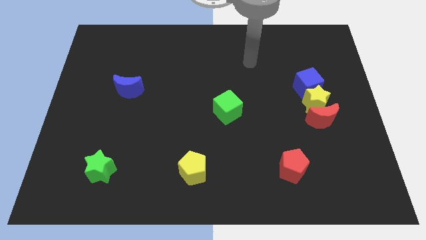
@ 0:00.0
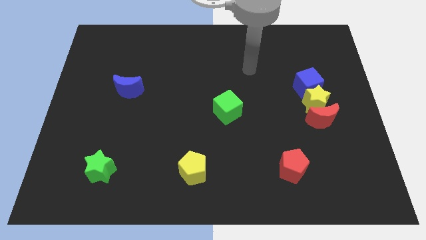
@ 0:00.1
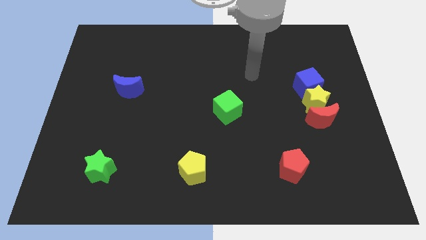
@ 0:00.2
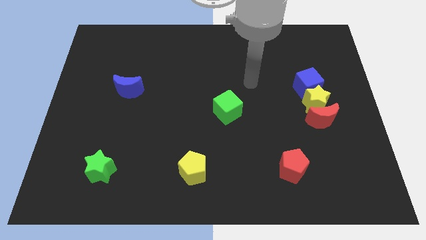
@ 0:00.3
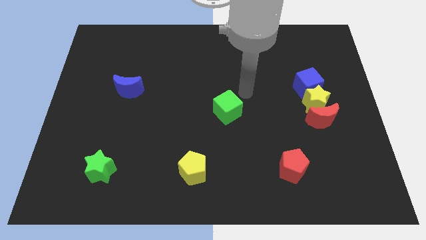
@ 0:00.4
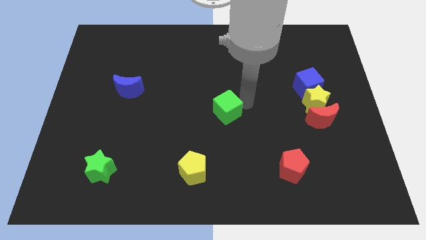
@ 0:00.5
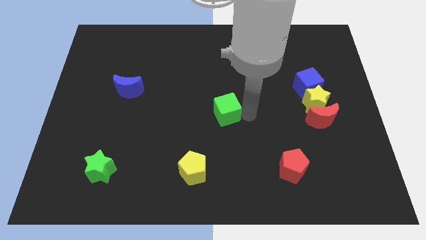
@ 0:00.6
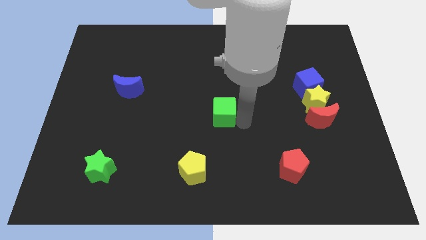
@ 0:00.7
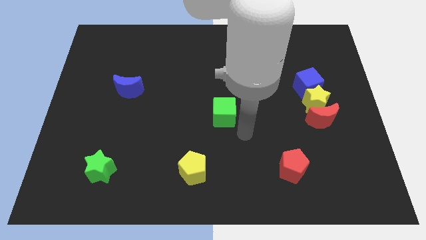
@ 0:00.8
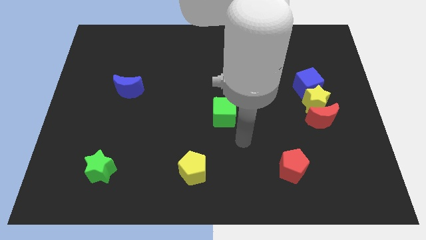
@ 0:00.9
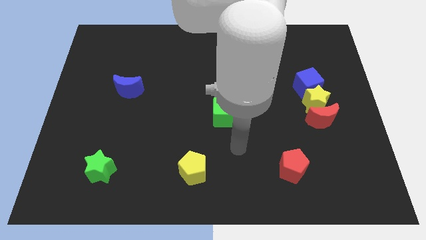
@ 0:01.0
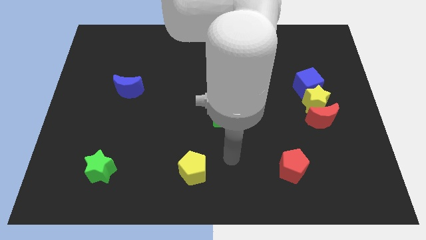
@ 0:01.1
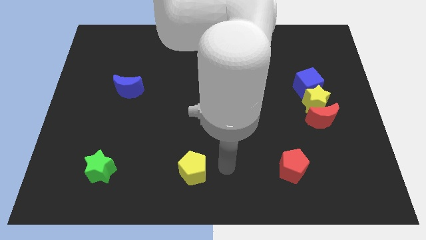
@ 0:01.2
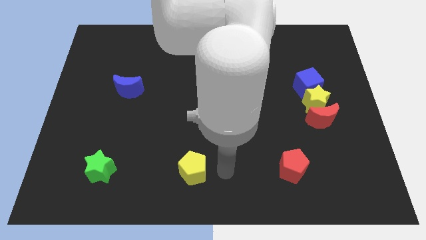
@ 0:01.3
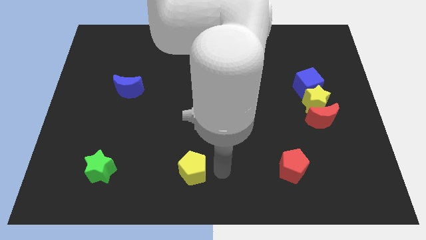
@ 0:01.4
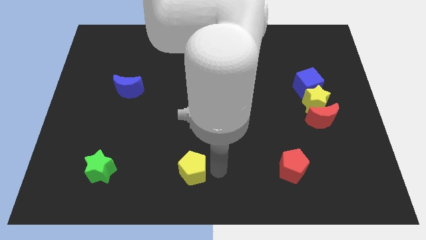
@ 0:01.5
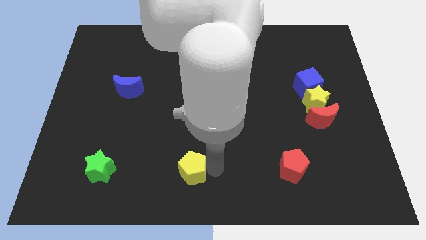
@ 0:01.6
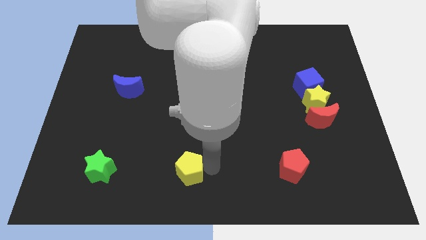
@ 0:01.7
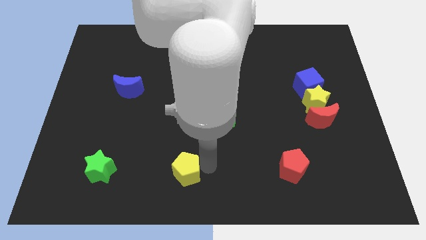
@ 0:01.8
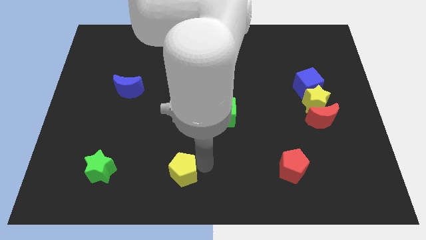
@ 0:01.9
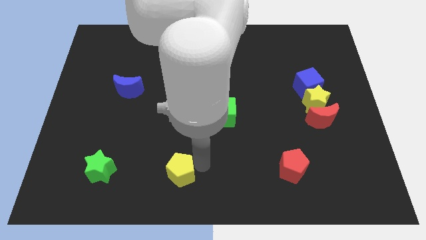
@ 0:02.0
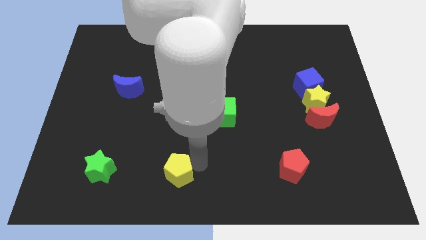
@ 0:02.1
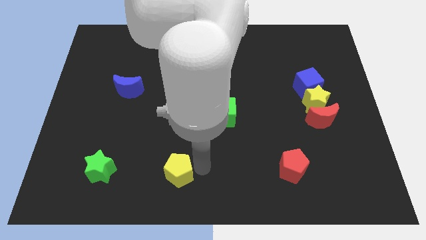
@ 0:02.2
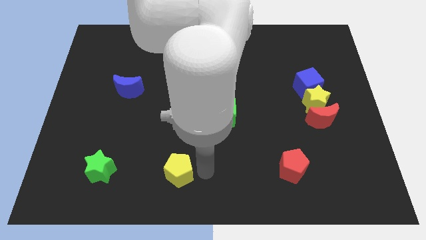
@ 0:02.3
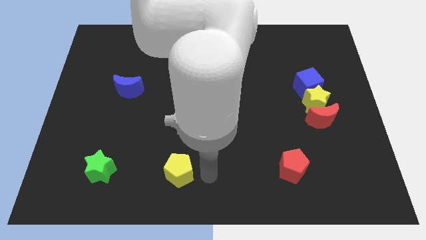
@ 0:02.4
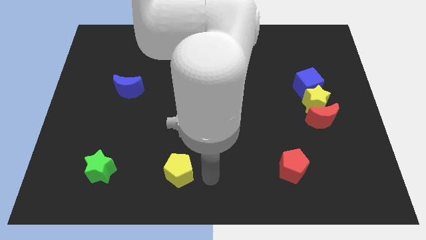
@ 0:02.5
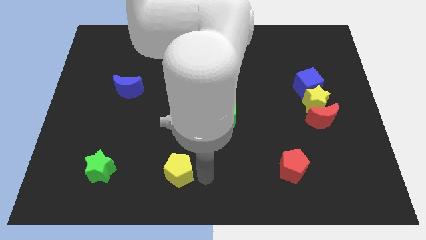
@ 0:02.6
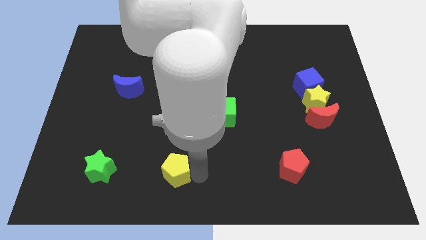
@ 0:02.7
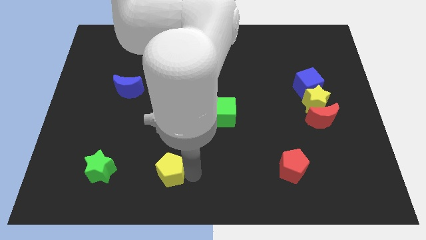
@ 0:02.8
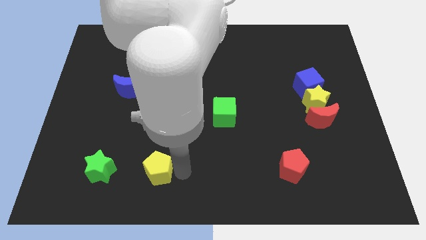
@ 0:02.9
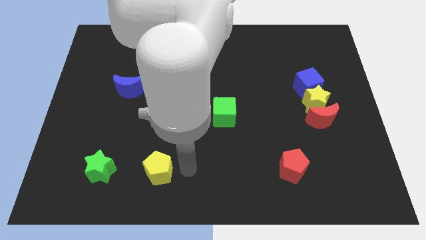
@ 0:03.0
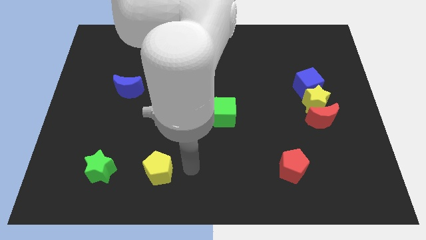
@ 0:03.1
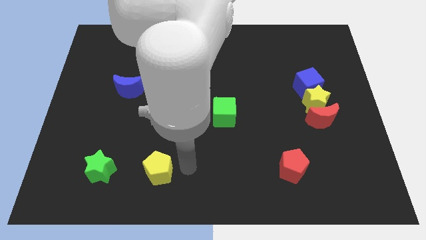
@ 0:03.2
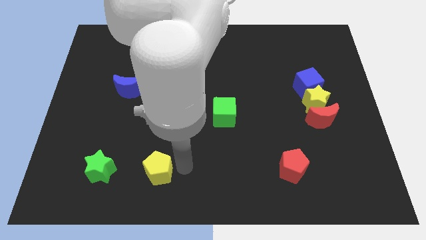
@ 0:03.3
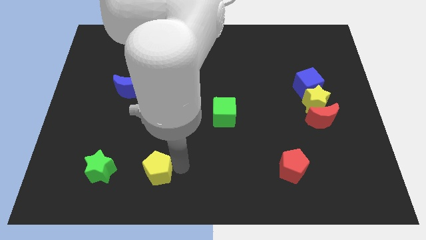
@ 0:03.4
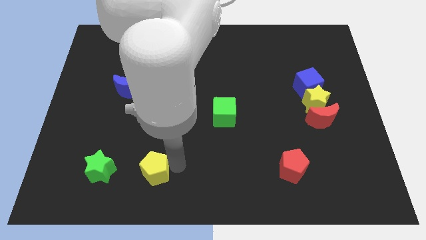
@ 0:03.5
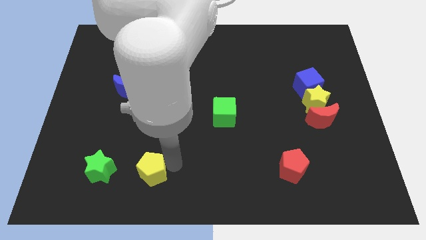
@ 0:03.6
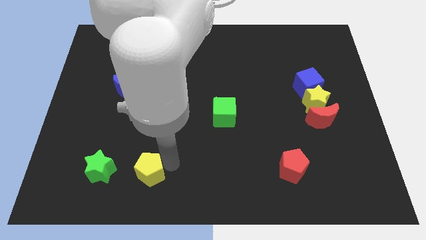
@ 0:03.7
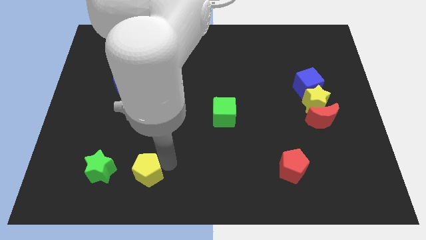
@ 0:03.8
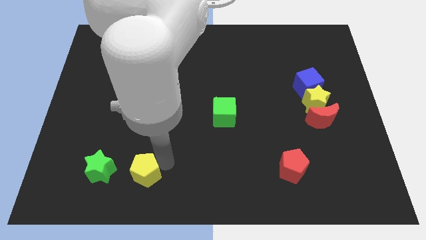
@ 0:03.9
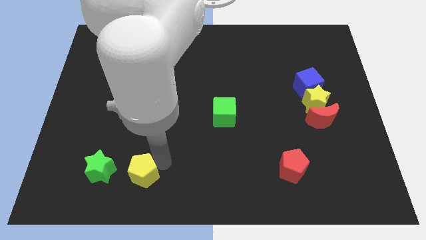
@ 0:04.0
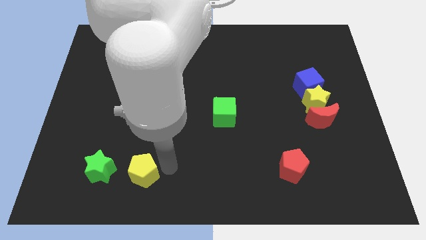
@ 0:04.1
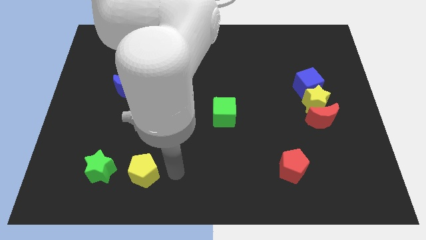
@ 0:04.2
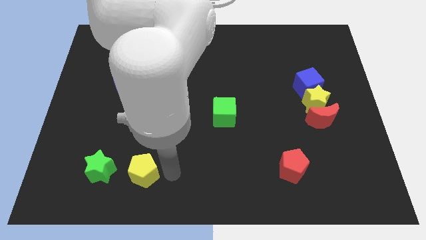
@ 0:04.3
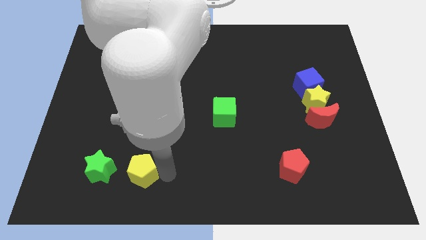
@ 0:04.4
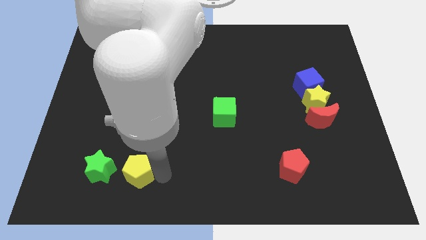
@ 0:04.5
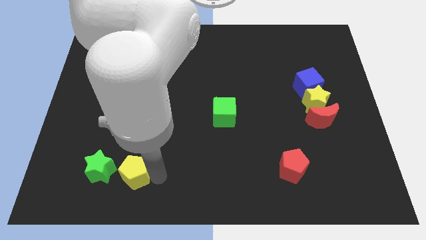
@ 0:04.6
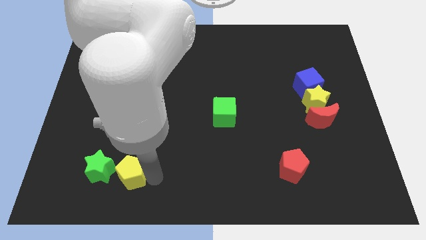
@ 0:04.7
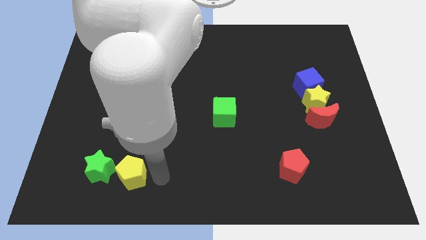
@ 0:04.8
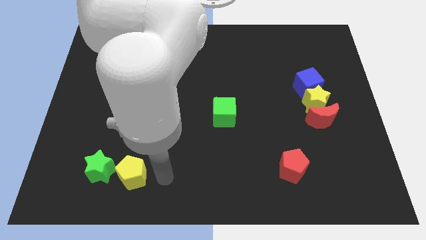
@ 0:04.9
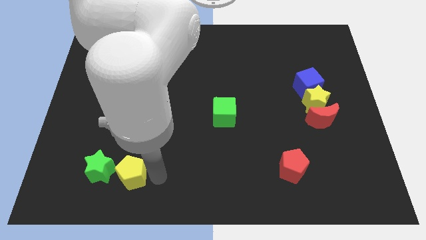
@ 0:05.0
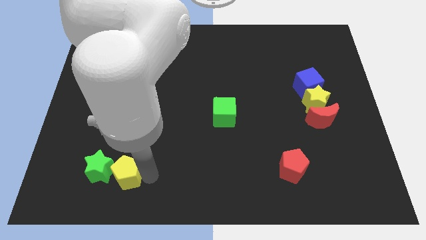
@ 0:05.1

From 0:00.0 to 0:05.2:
slide the yellow pentagon towards the green star

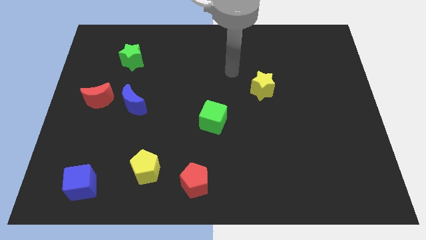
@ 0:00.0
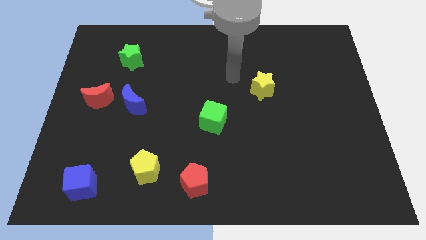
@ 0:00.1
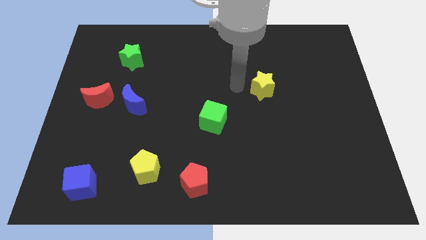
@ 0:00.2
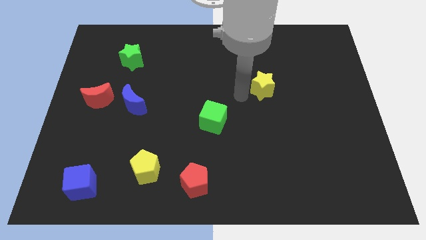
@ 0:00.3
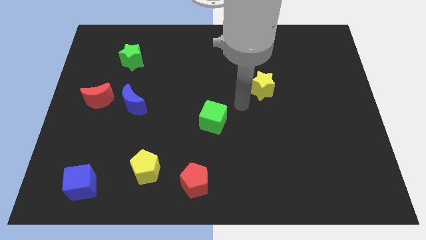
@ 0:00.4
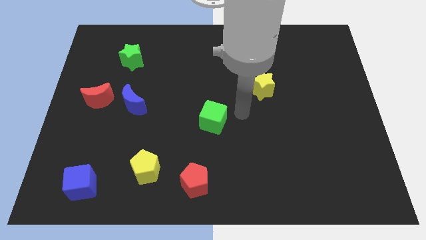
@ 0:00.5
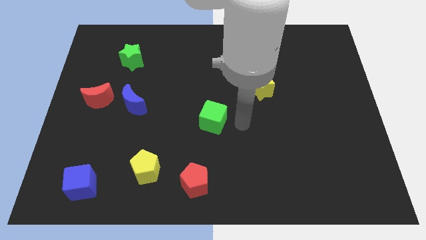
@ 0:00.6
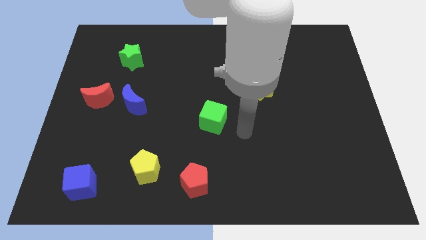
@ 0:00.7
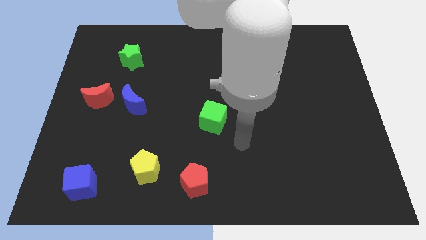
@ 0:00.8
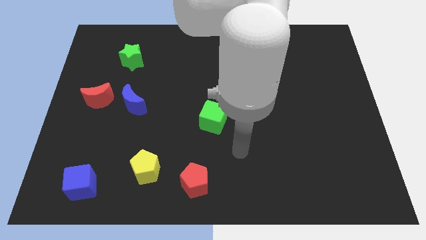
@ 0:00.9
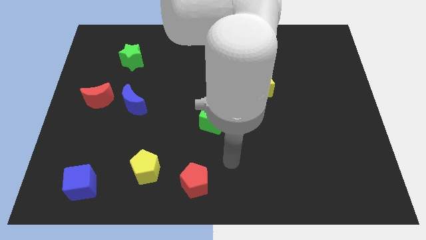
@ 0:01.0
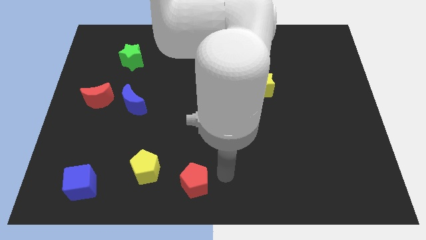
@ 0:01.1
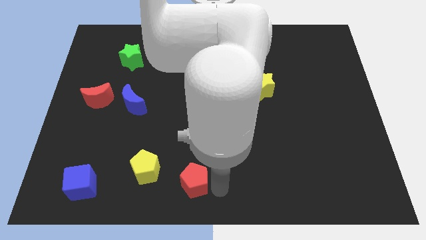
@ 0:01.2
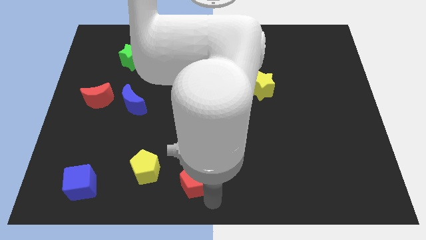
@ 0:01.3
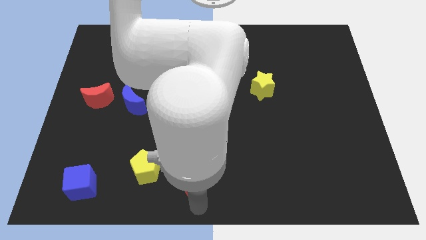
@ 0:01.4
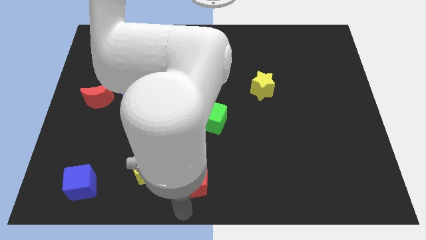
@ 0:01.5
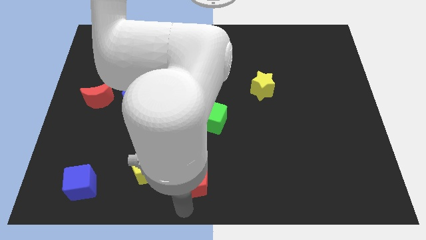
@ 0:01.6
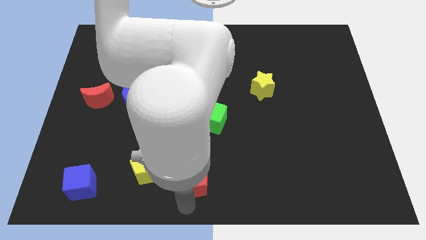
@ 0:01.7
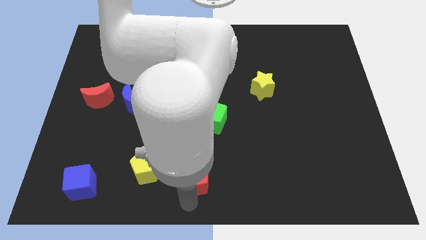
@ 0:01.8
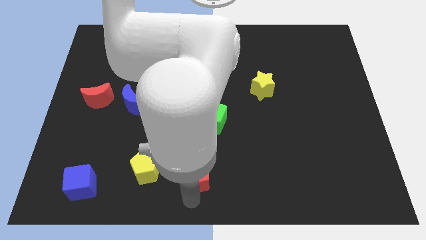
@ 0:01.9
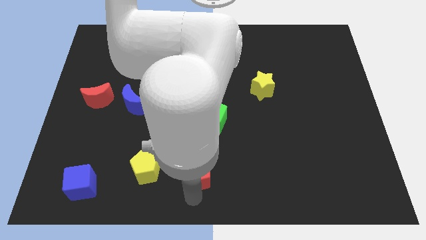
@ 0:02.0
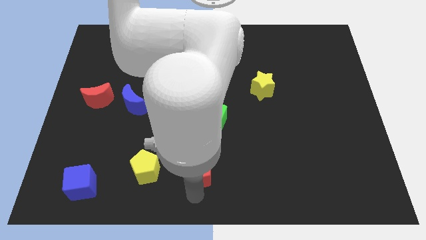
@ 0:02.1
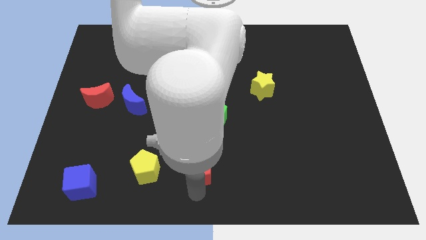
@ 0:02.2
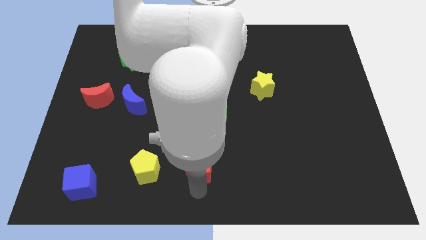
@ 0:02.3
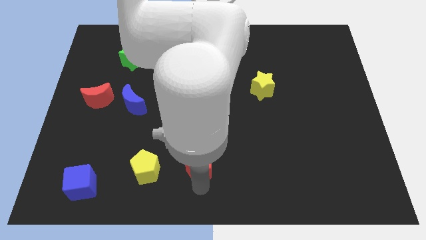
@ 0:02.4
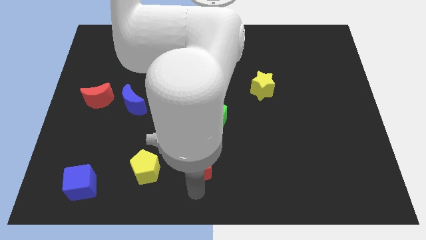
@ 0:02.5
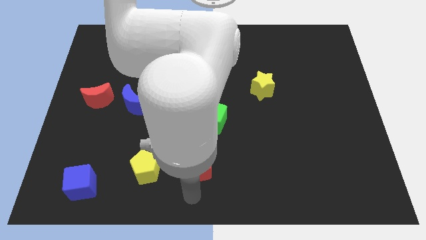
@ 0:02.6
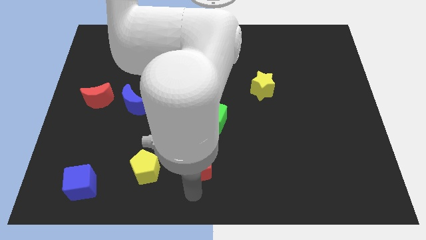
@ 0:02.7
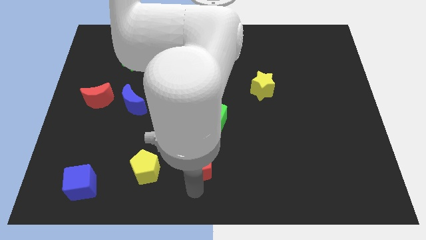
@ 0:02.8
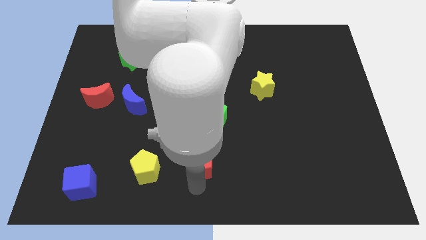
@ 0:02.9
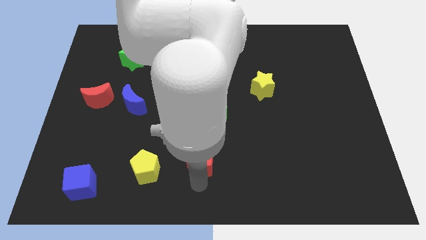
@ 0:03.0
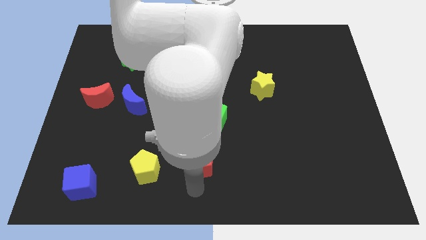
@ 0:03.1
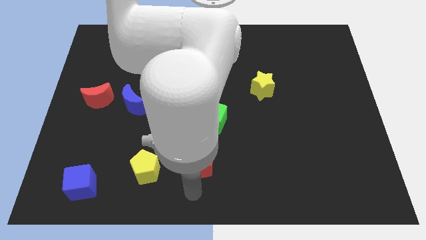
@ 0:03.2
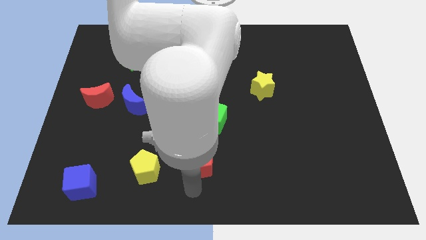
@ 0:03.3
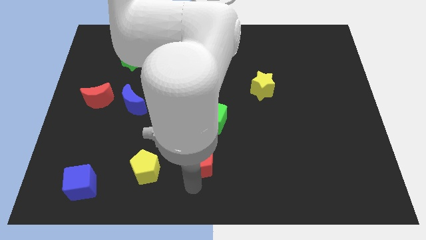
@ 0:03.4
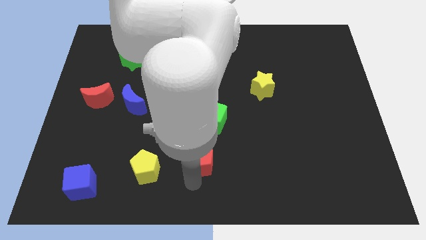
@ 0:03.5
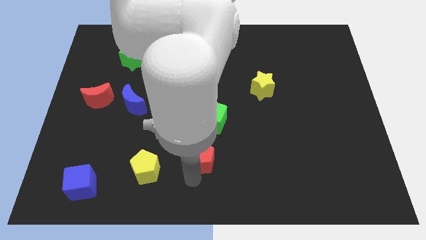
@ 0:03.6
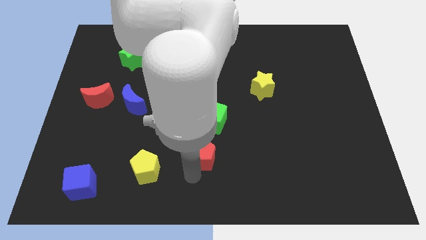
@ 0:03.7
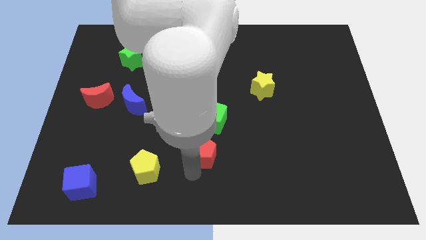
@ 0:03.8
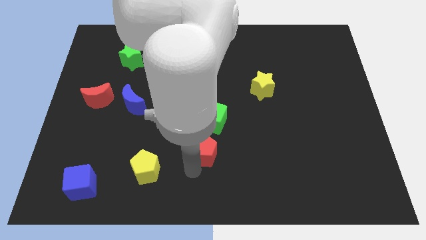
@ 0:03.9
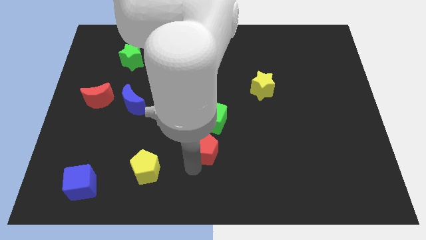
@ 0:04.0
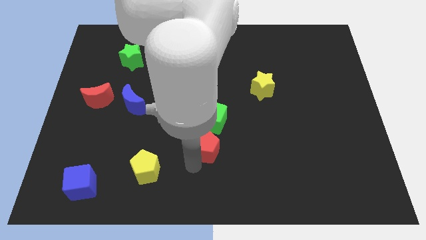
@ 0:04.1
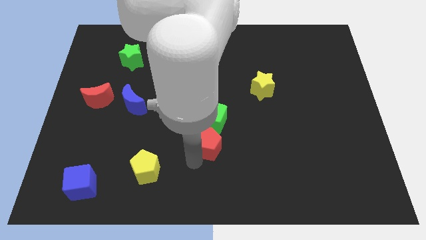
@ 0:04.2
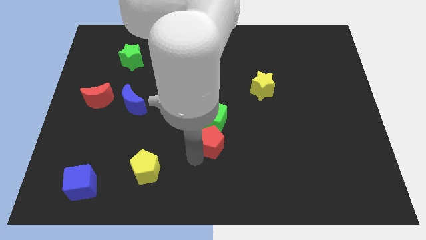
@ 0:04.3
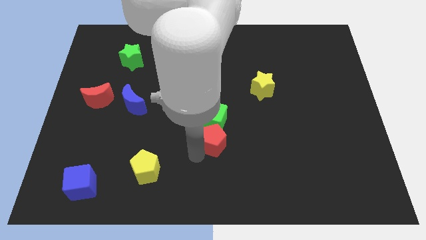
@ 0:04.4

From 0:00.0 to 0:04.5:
slide the red pentagon next to the green cube
